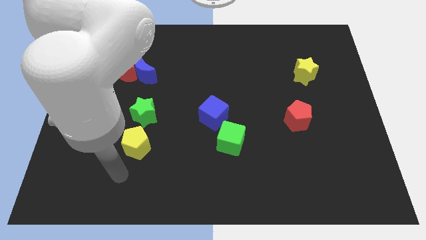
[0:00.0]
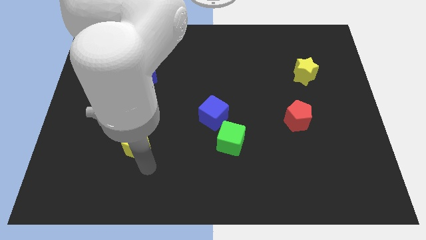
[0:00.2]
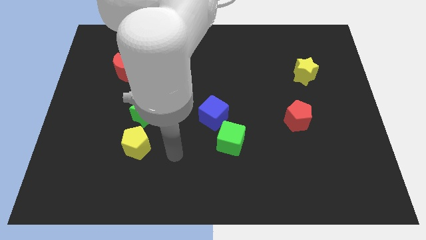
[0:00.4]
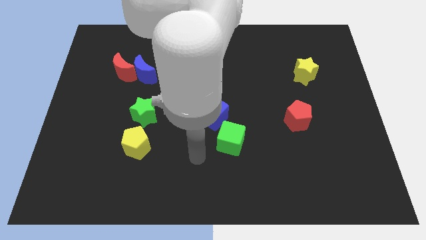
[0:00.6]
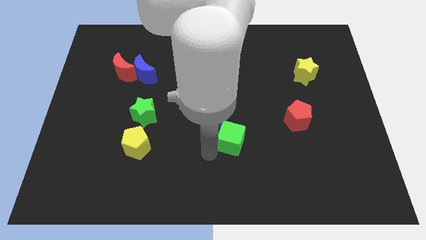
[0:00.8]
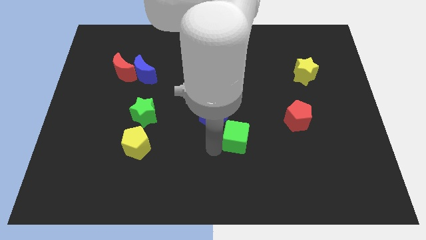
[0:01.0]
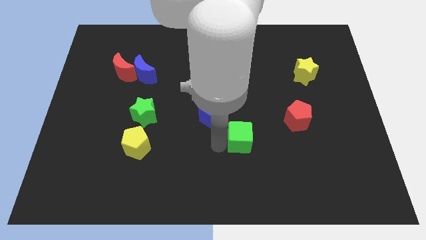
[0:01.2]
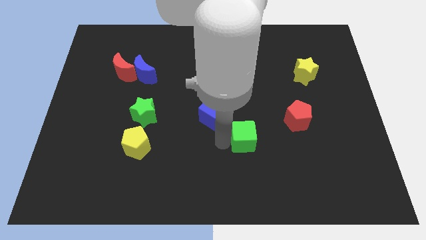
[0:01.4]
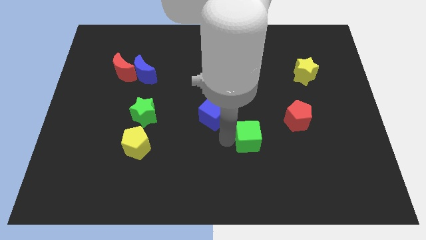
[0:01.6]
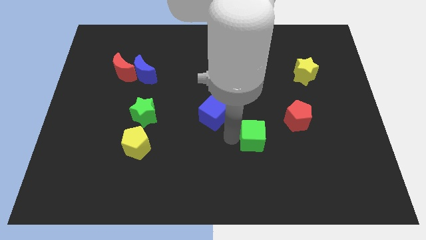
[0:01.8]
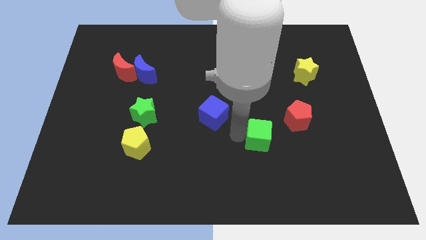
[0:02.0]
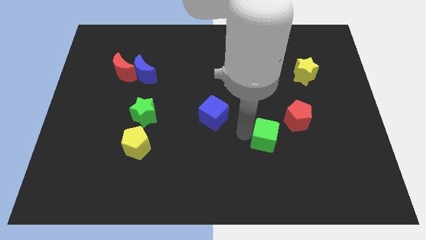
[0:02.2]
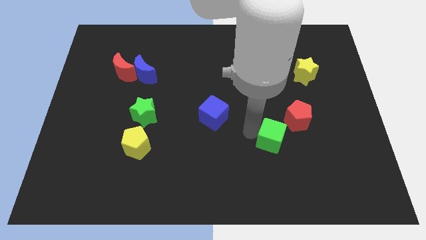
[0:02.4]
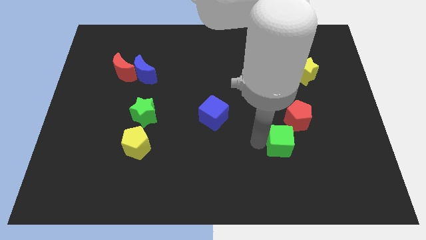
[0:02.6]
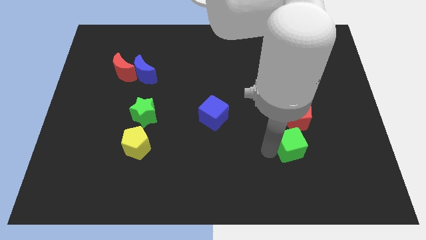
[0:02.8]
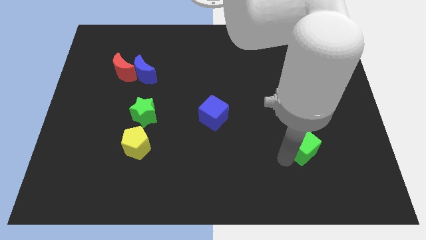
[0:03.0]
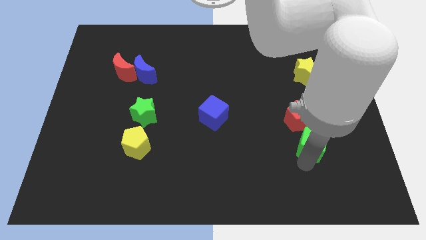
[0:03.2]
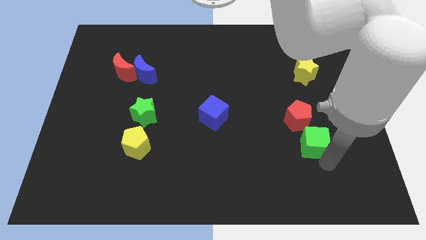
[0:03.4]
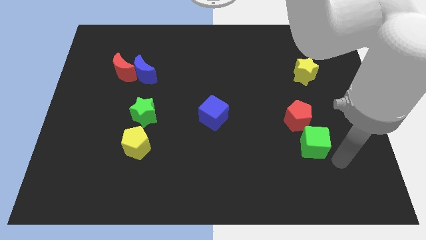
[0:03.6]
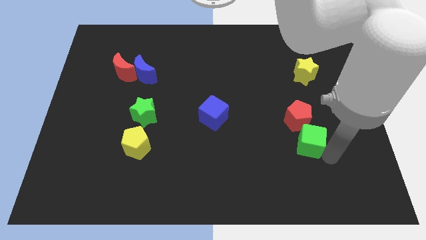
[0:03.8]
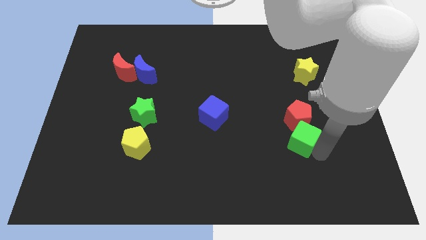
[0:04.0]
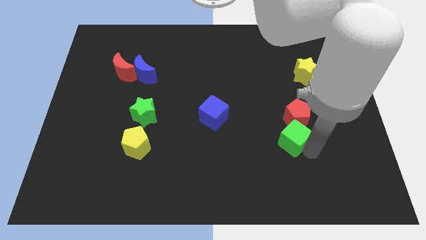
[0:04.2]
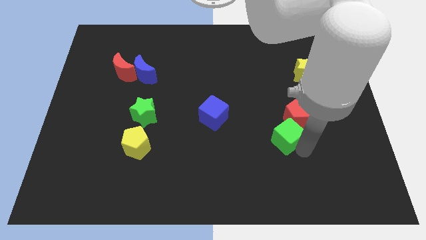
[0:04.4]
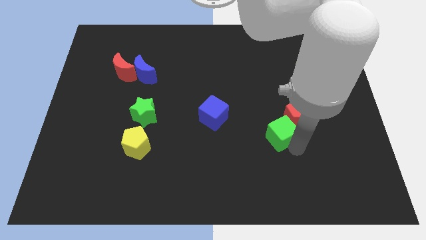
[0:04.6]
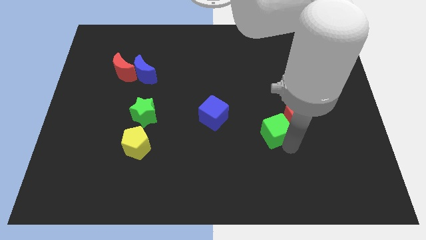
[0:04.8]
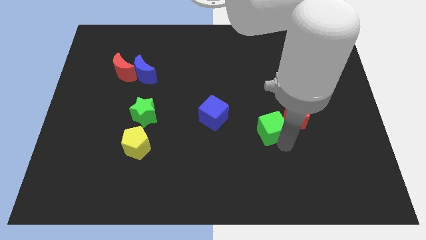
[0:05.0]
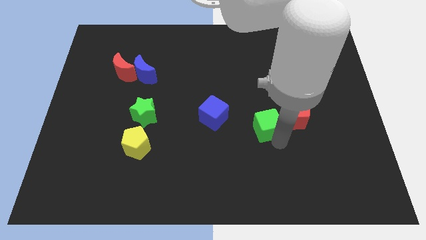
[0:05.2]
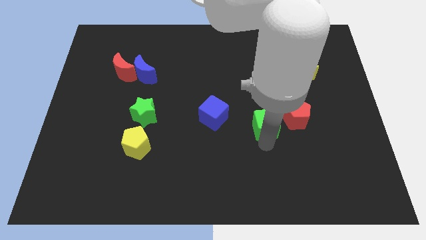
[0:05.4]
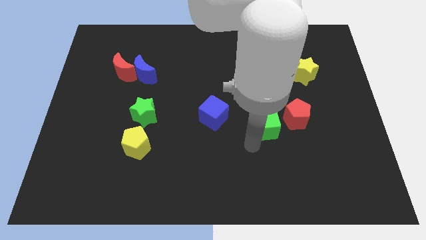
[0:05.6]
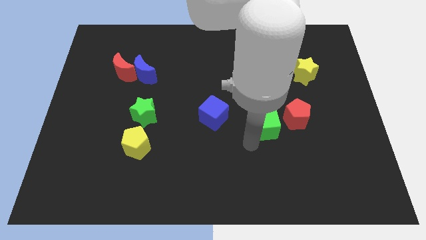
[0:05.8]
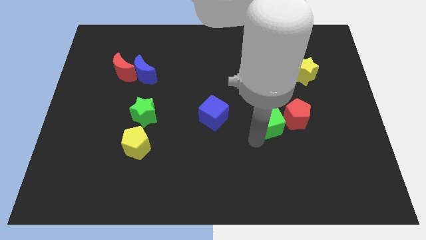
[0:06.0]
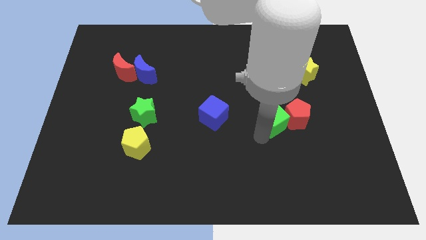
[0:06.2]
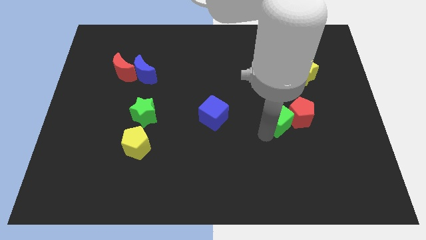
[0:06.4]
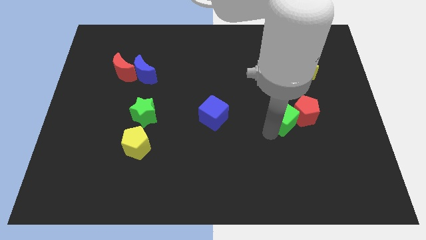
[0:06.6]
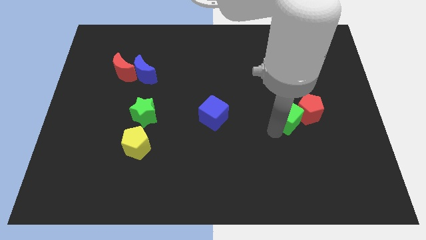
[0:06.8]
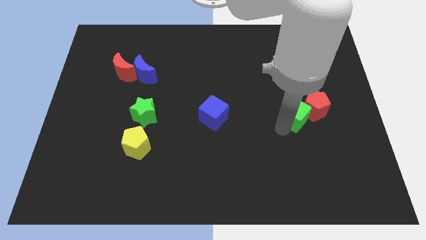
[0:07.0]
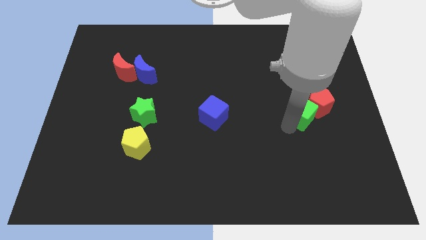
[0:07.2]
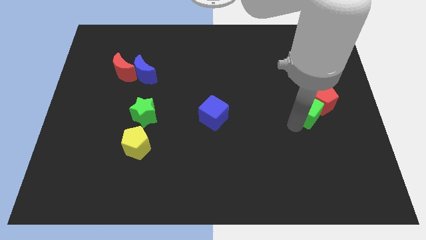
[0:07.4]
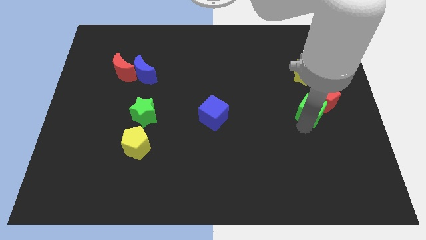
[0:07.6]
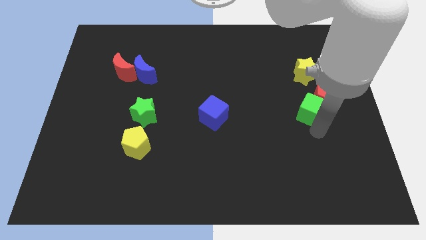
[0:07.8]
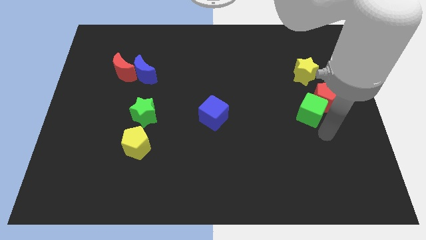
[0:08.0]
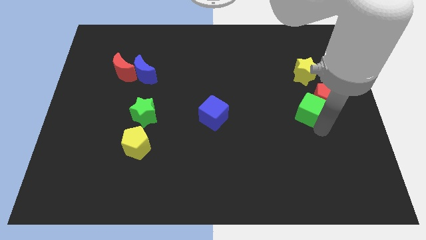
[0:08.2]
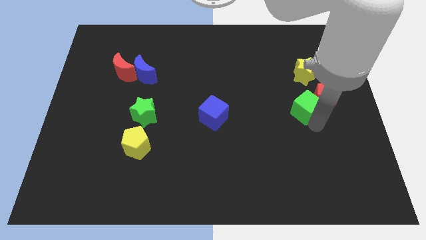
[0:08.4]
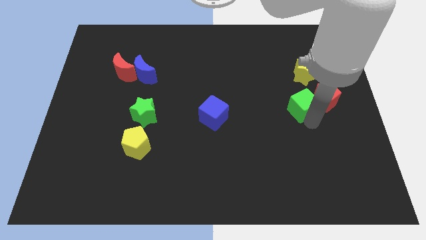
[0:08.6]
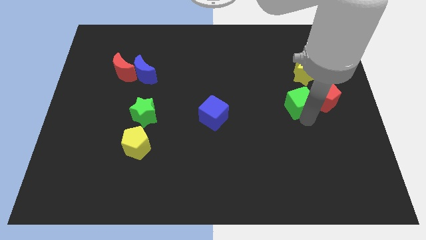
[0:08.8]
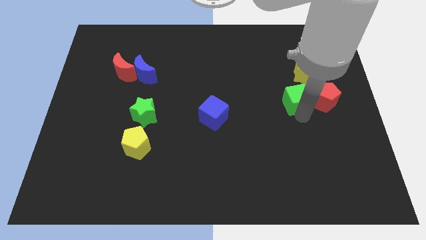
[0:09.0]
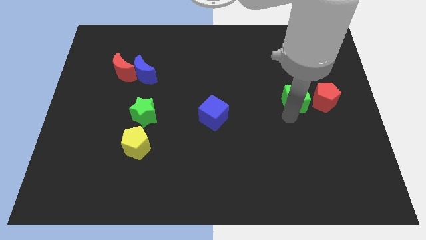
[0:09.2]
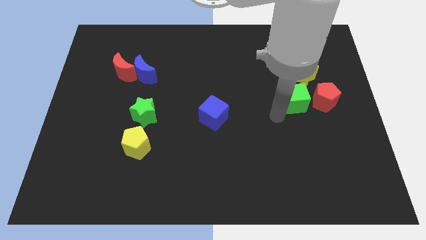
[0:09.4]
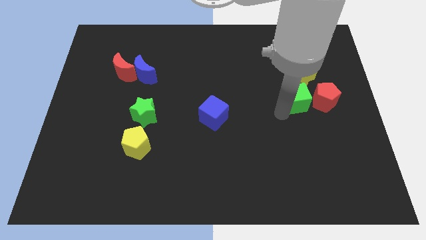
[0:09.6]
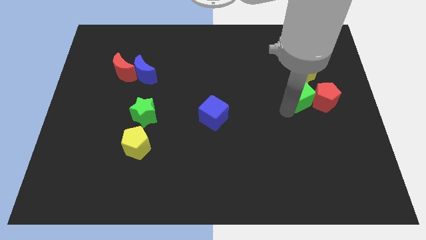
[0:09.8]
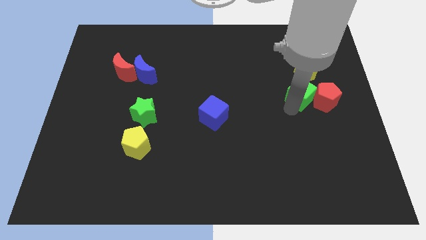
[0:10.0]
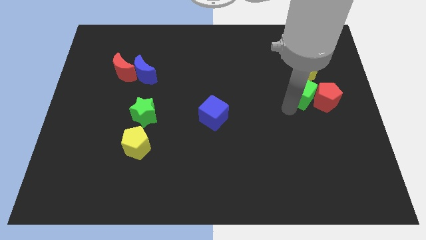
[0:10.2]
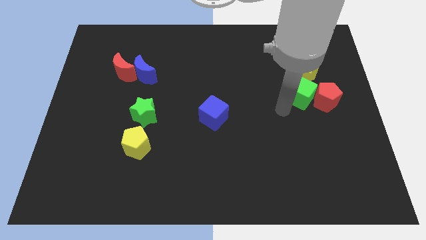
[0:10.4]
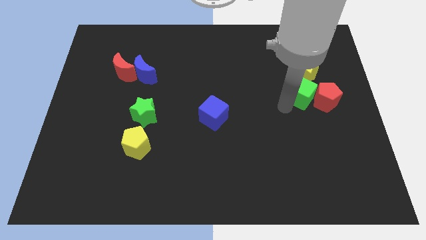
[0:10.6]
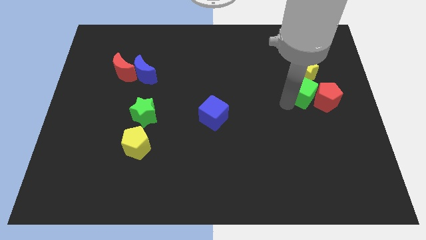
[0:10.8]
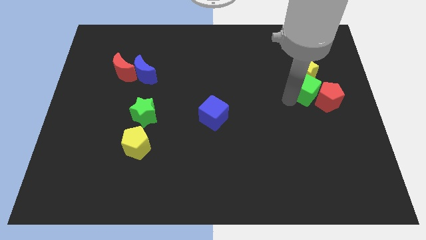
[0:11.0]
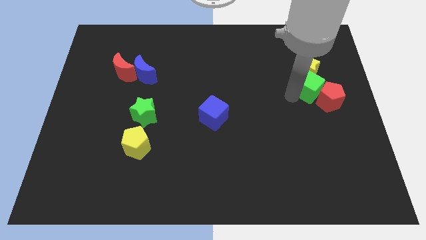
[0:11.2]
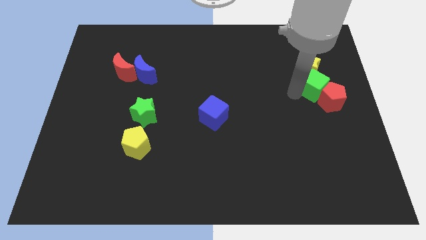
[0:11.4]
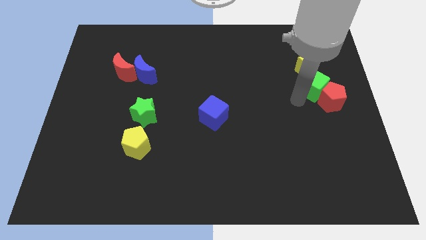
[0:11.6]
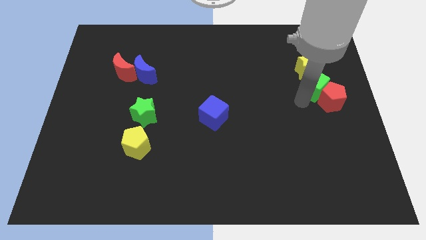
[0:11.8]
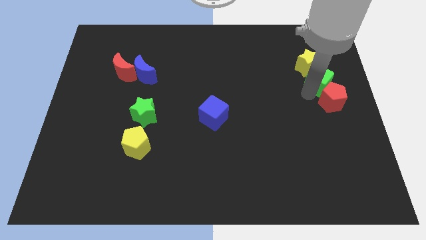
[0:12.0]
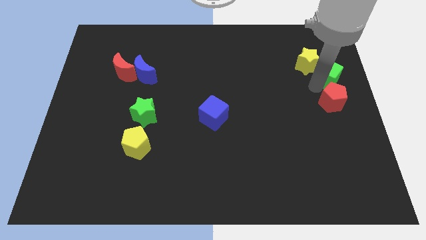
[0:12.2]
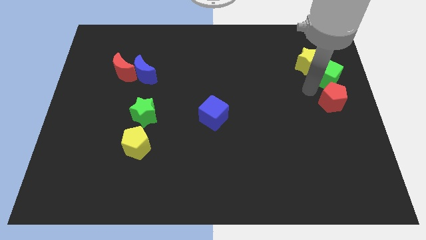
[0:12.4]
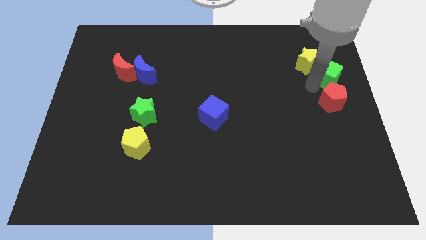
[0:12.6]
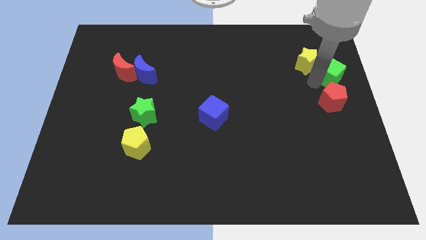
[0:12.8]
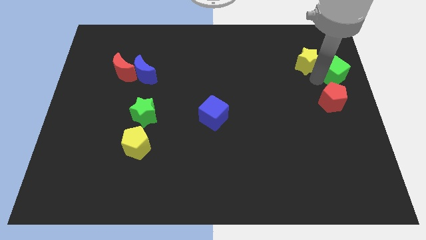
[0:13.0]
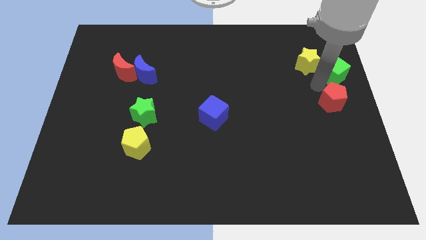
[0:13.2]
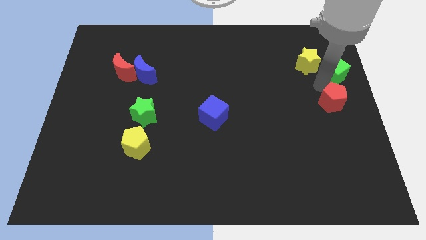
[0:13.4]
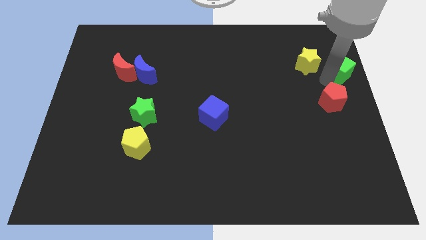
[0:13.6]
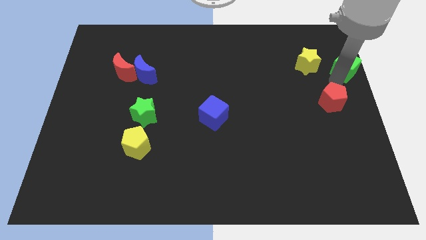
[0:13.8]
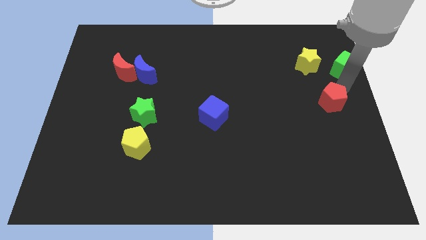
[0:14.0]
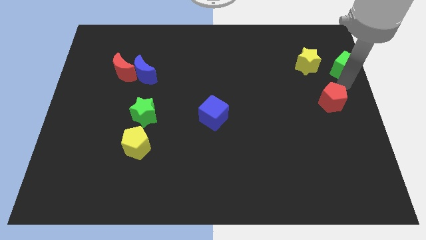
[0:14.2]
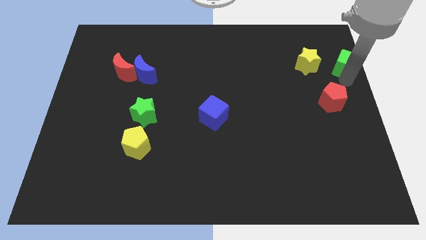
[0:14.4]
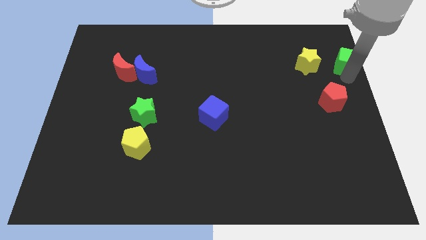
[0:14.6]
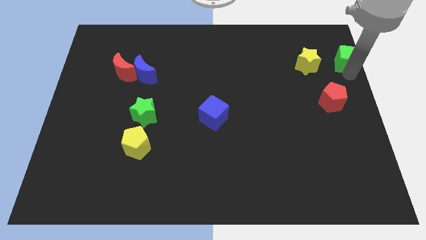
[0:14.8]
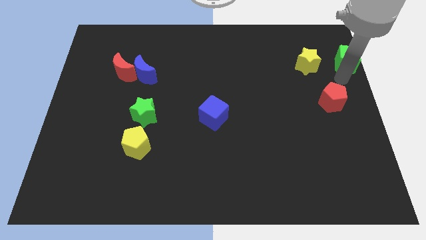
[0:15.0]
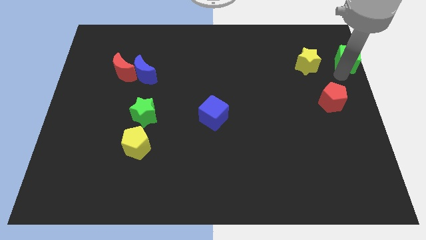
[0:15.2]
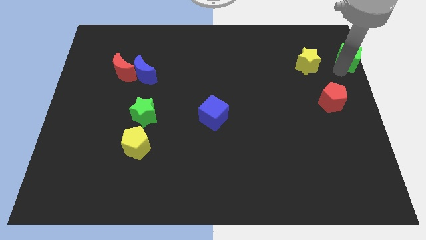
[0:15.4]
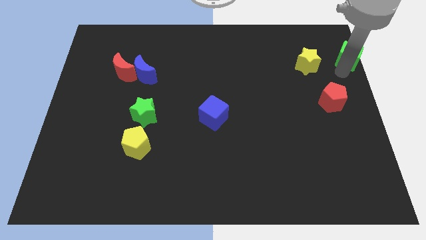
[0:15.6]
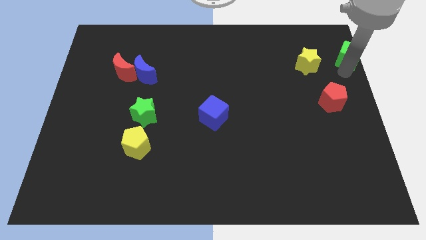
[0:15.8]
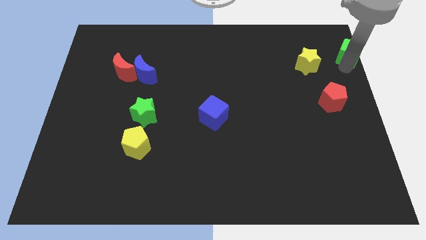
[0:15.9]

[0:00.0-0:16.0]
push the green cube to the top right of the board
